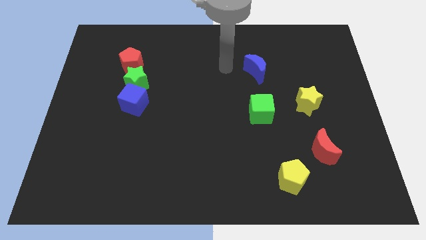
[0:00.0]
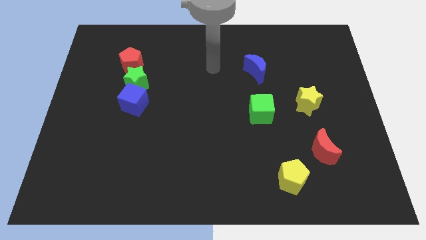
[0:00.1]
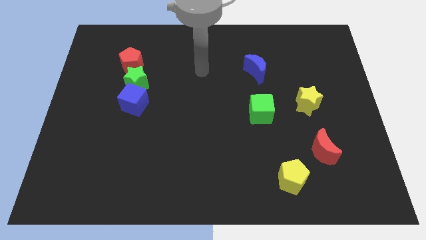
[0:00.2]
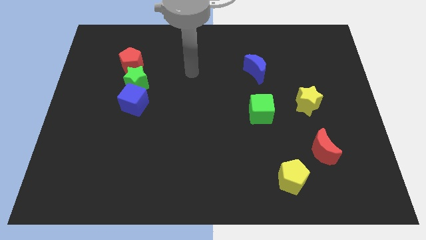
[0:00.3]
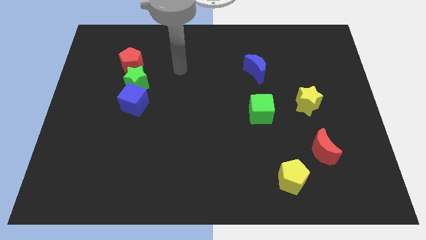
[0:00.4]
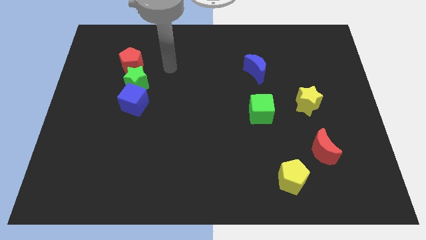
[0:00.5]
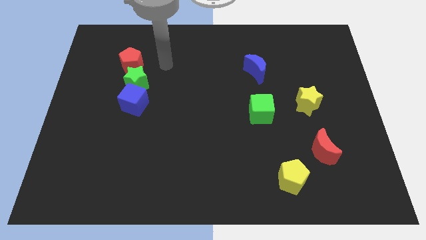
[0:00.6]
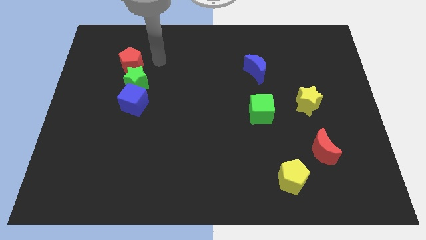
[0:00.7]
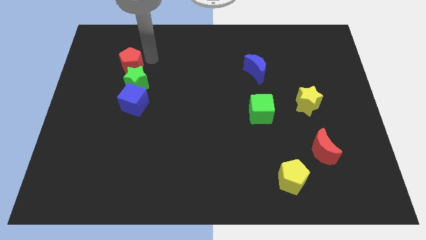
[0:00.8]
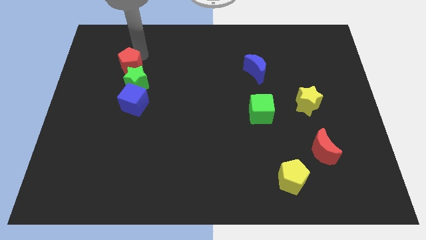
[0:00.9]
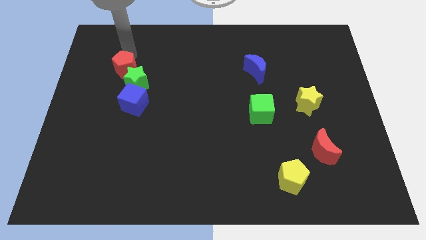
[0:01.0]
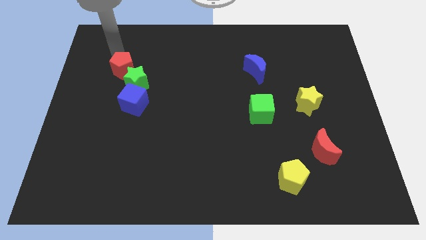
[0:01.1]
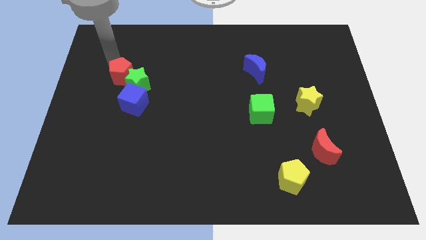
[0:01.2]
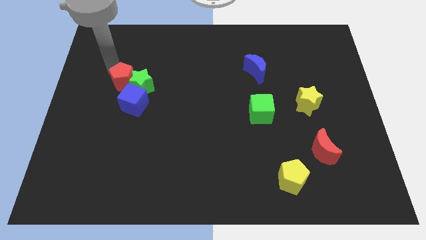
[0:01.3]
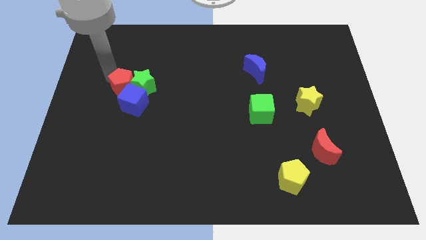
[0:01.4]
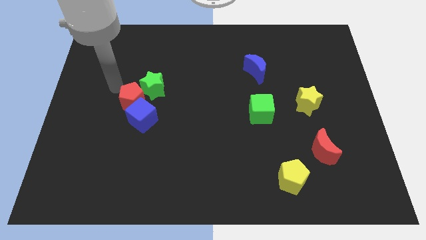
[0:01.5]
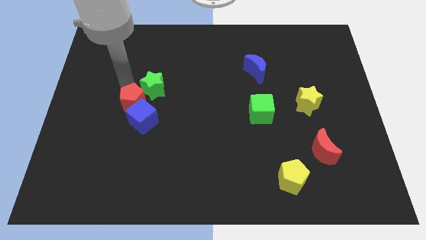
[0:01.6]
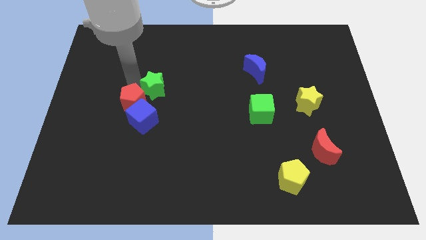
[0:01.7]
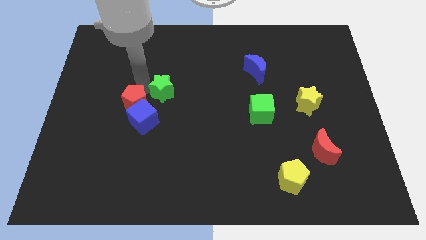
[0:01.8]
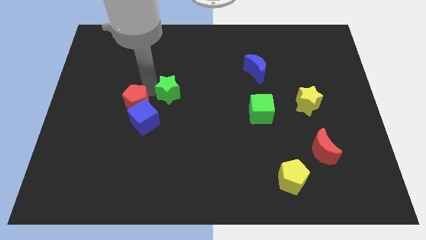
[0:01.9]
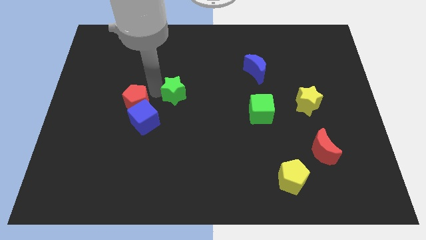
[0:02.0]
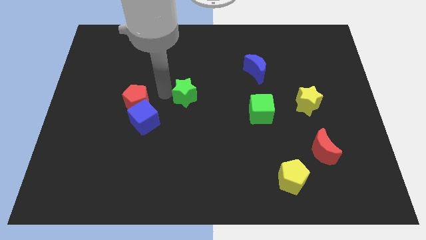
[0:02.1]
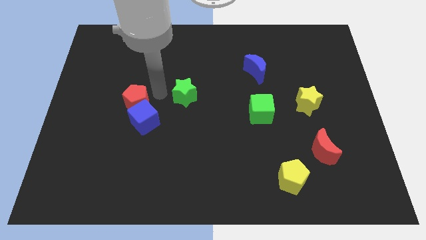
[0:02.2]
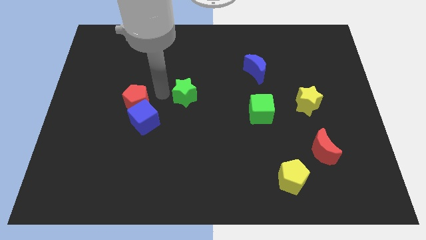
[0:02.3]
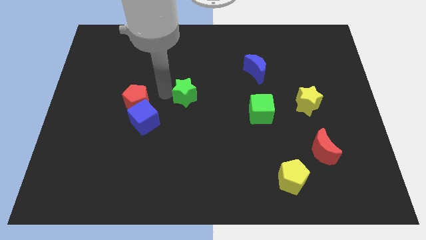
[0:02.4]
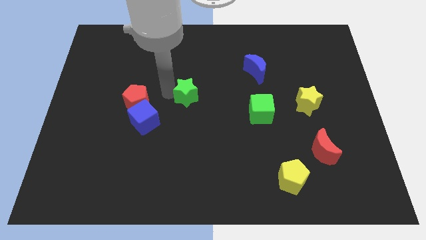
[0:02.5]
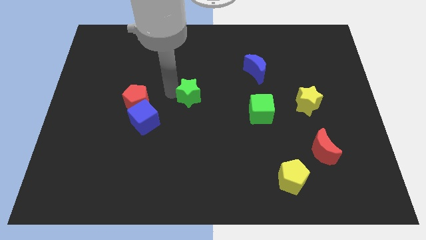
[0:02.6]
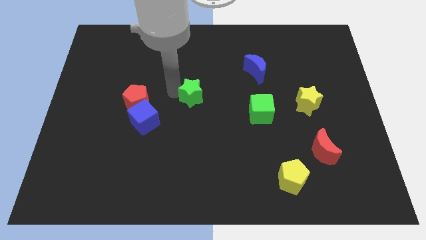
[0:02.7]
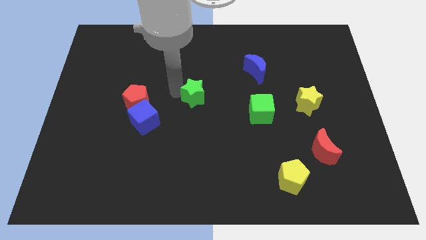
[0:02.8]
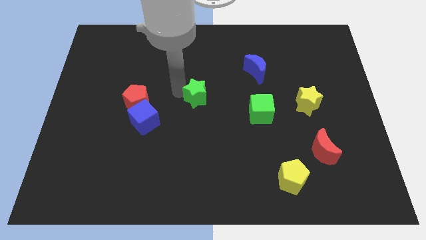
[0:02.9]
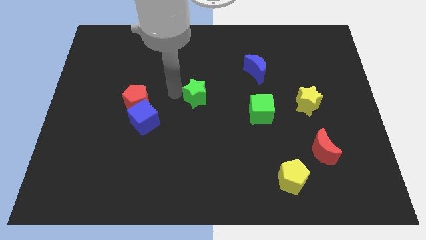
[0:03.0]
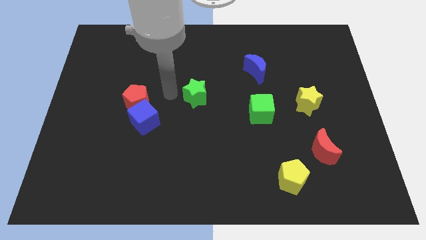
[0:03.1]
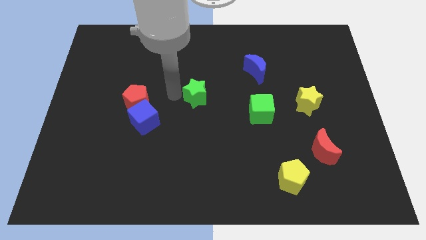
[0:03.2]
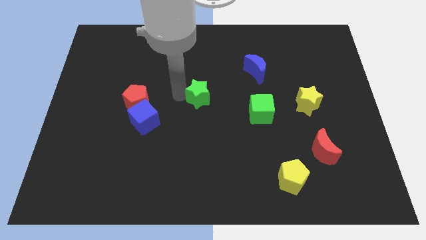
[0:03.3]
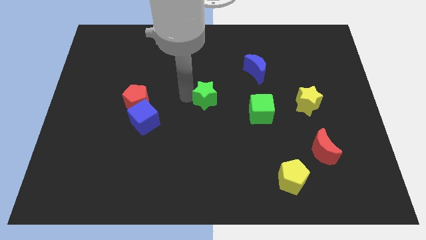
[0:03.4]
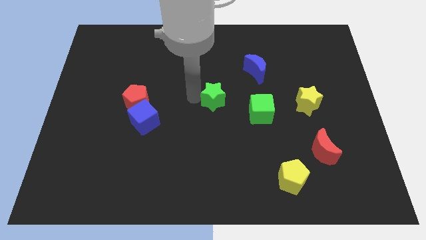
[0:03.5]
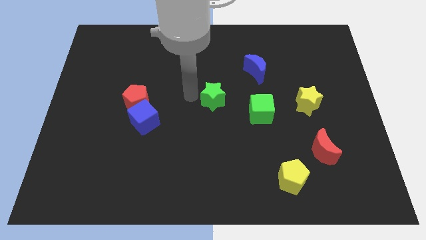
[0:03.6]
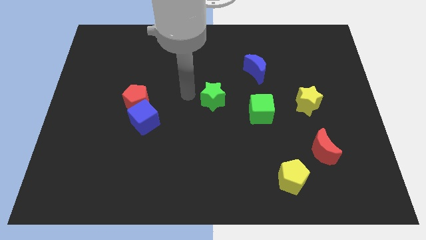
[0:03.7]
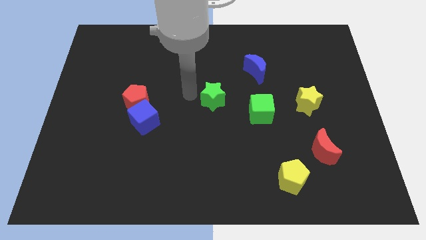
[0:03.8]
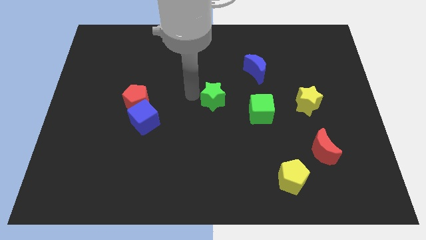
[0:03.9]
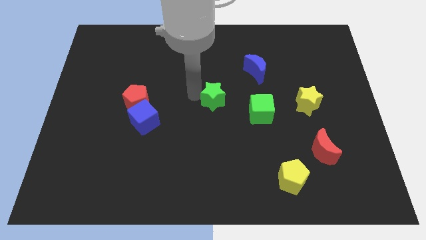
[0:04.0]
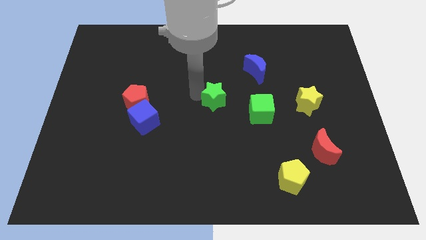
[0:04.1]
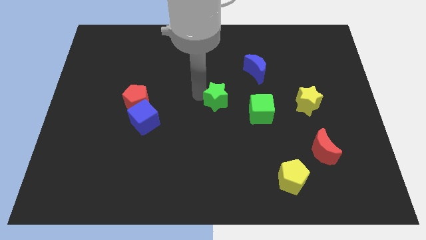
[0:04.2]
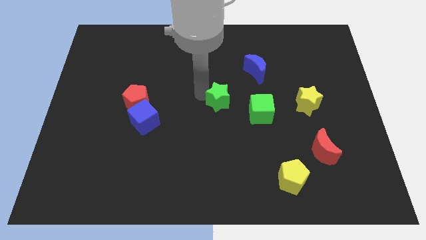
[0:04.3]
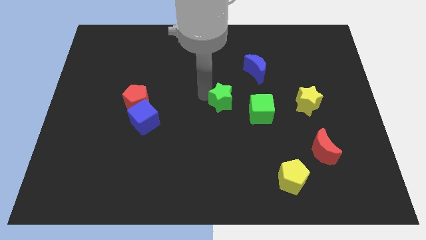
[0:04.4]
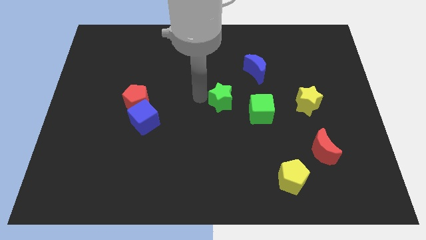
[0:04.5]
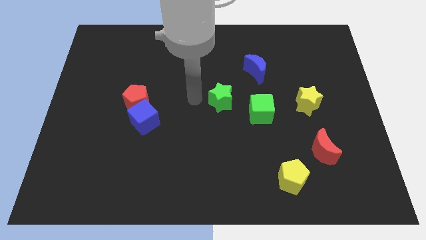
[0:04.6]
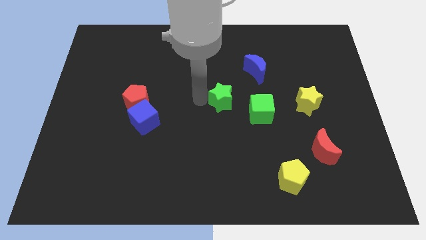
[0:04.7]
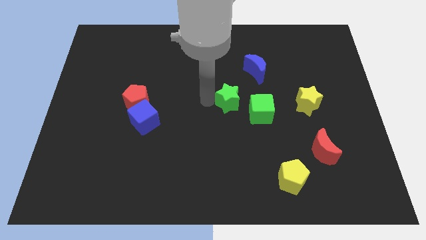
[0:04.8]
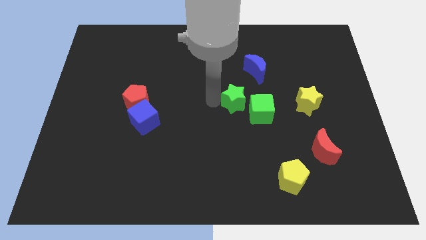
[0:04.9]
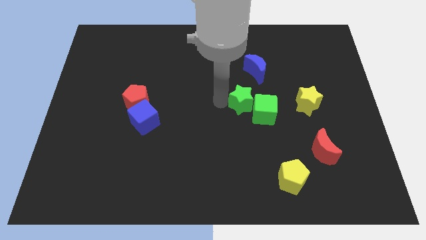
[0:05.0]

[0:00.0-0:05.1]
put the green star left of the yellow star

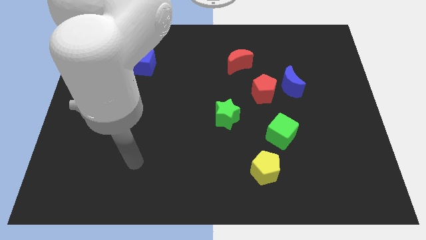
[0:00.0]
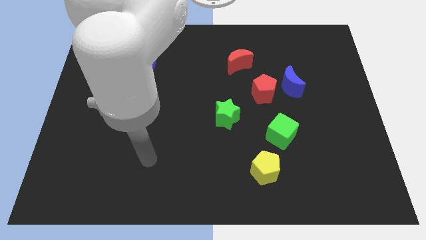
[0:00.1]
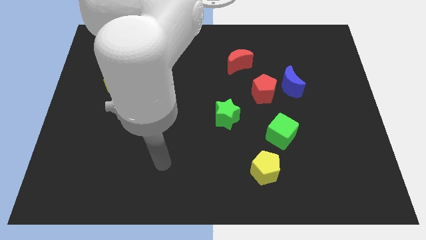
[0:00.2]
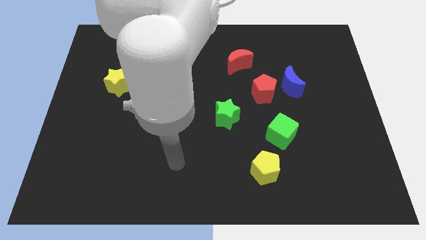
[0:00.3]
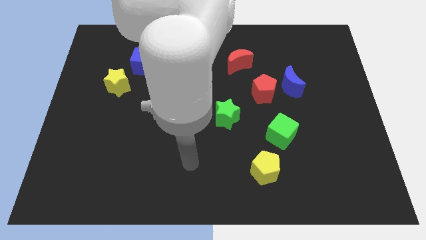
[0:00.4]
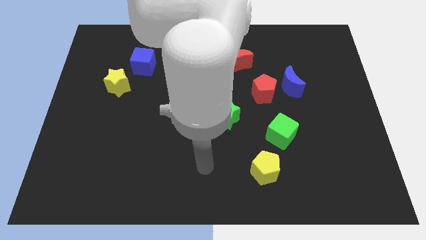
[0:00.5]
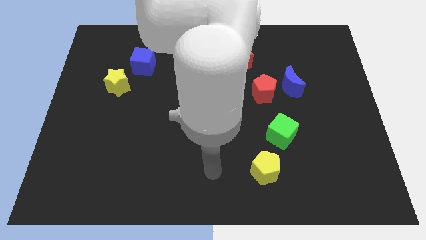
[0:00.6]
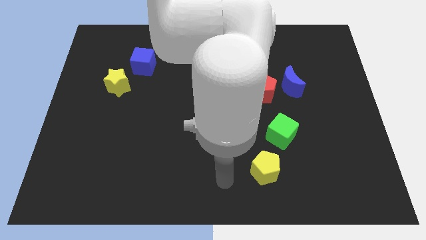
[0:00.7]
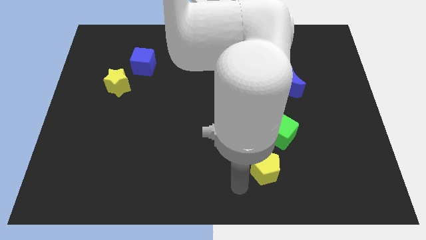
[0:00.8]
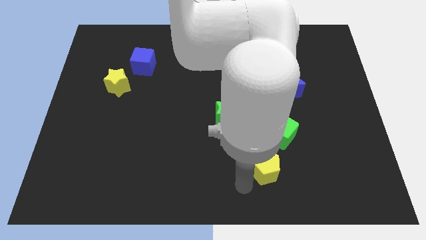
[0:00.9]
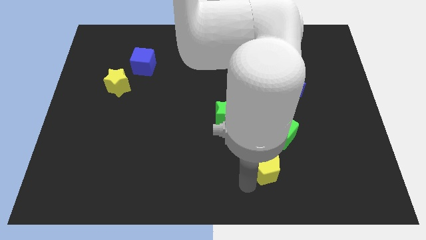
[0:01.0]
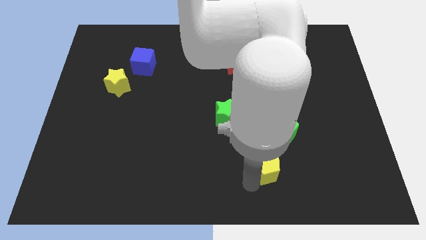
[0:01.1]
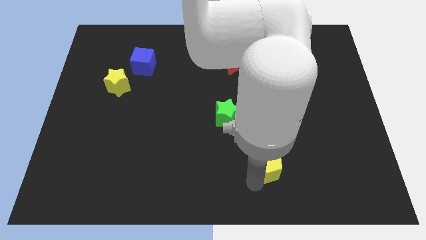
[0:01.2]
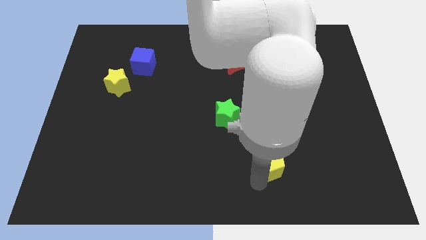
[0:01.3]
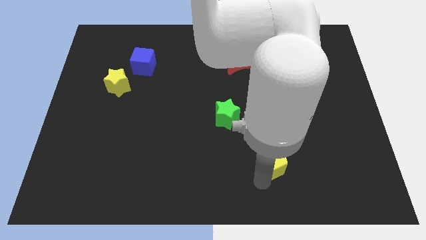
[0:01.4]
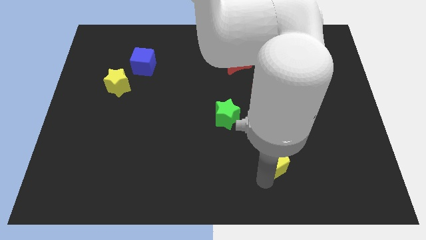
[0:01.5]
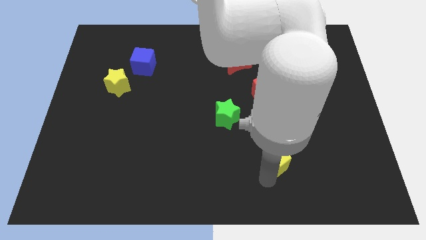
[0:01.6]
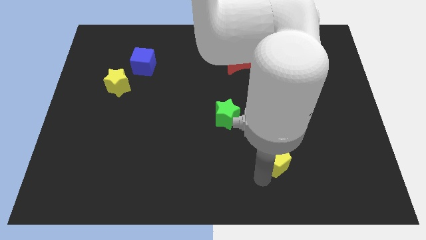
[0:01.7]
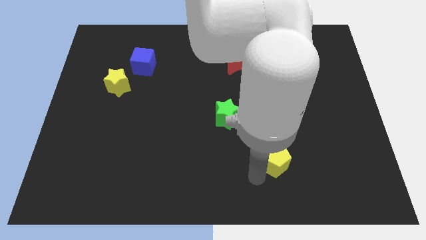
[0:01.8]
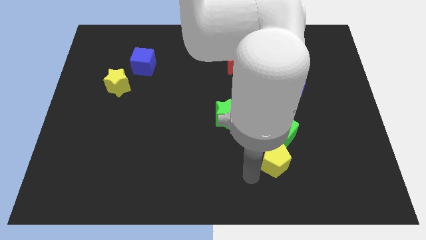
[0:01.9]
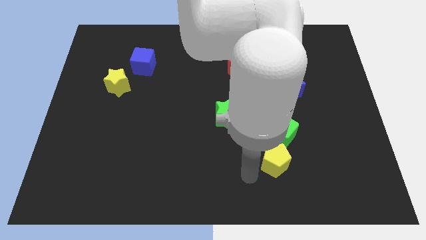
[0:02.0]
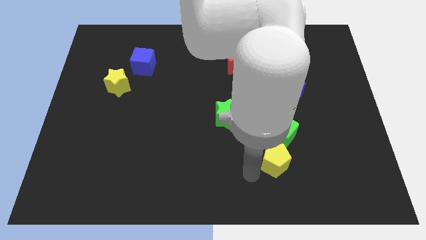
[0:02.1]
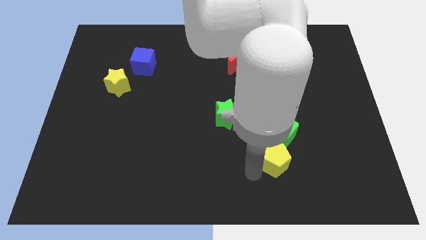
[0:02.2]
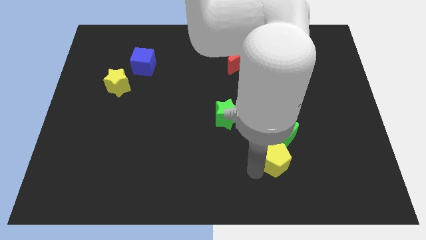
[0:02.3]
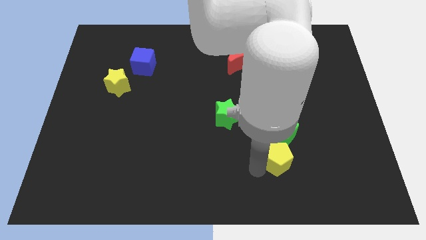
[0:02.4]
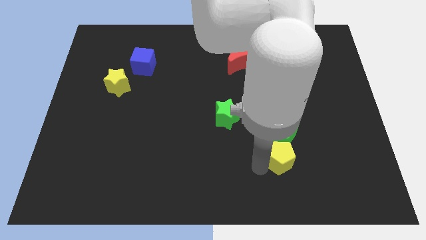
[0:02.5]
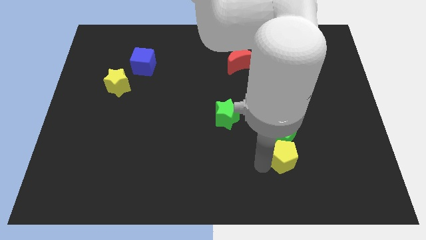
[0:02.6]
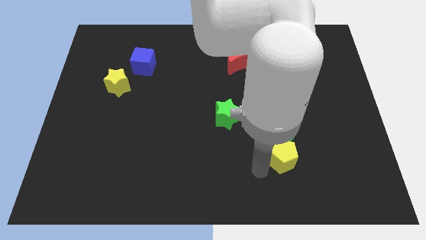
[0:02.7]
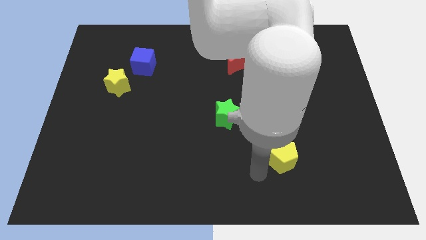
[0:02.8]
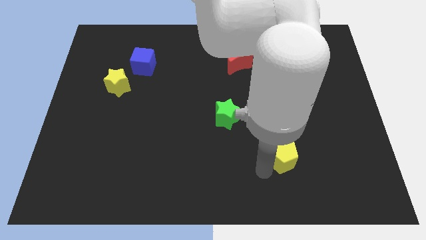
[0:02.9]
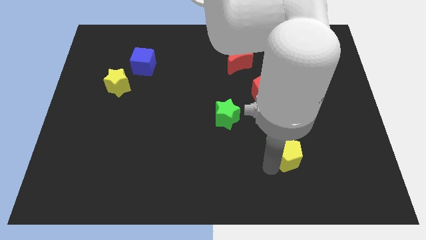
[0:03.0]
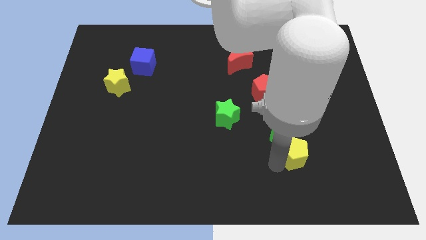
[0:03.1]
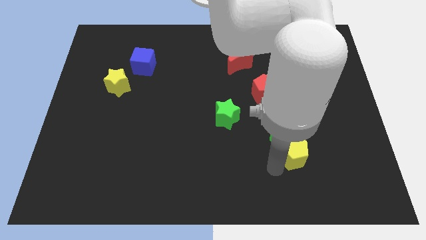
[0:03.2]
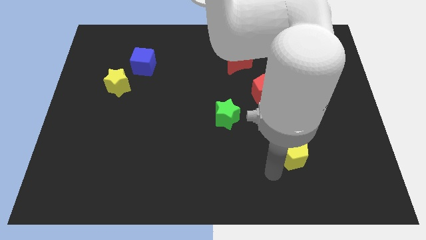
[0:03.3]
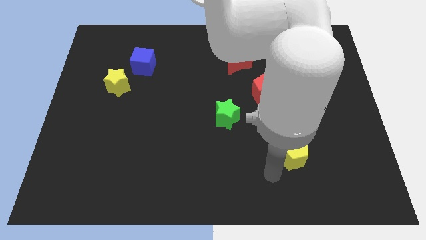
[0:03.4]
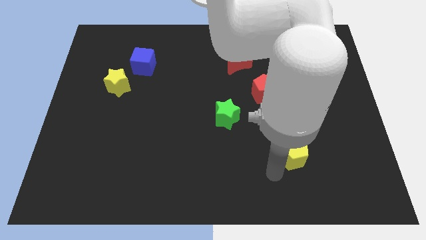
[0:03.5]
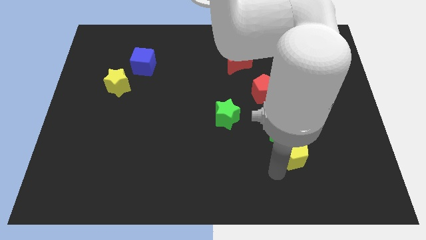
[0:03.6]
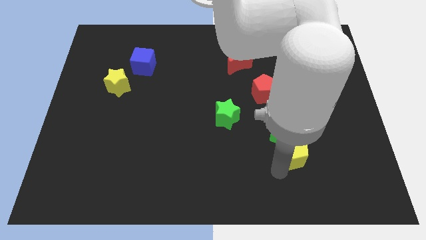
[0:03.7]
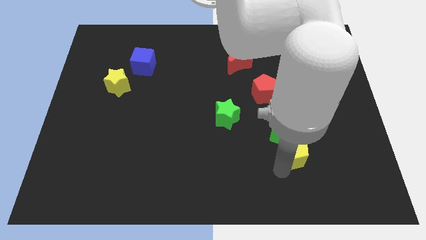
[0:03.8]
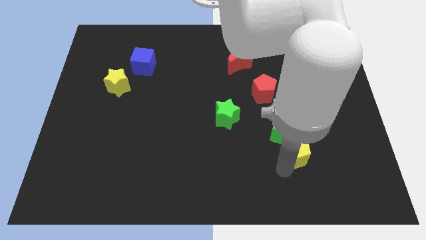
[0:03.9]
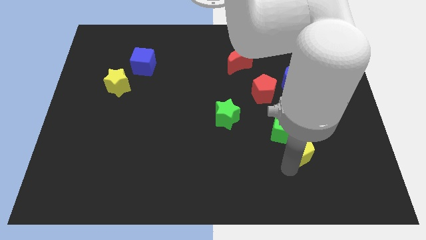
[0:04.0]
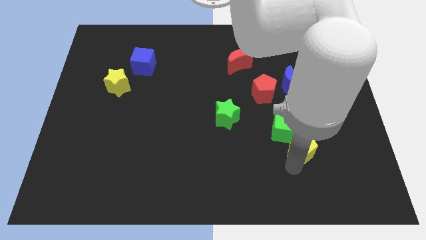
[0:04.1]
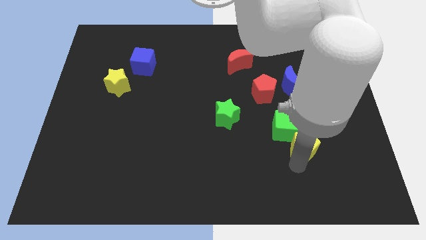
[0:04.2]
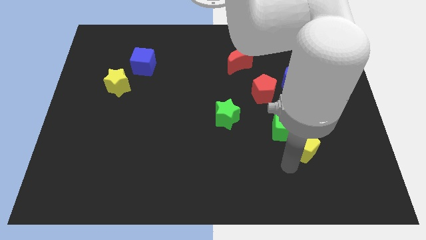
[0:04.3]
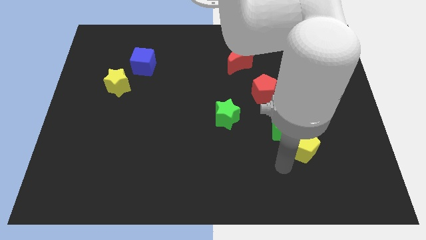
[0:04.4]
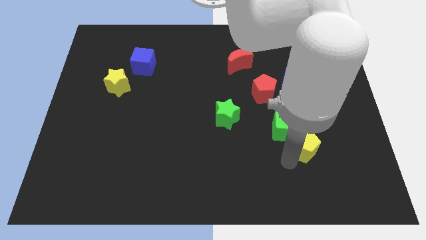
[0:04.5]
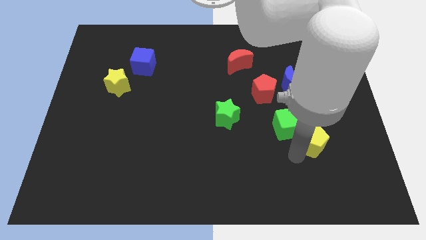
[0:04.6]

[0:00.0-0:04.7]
push the yellow pentagon to the right side of the green cube
